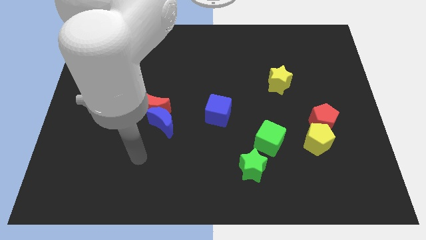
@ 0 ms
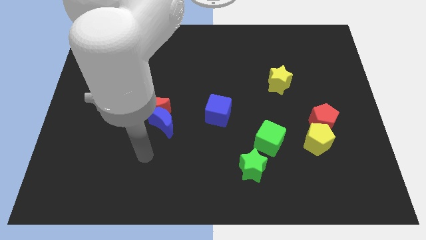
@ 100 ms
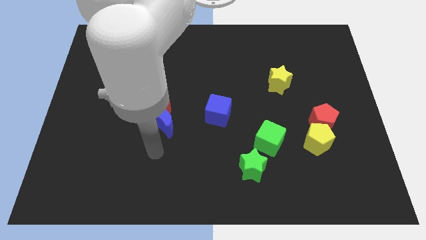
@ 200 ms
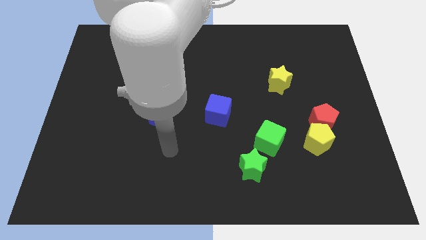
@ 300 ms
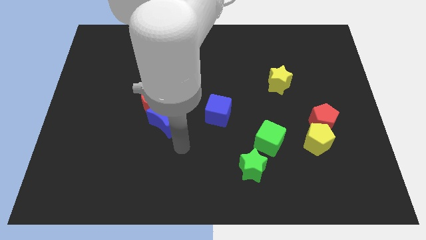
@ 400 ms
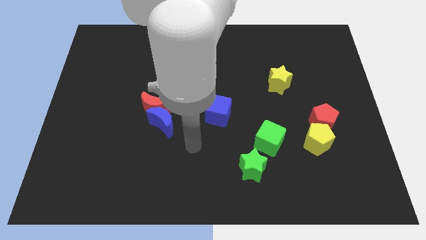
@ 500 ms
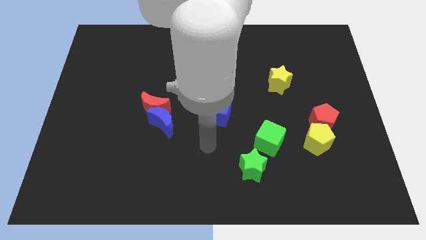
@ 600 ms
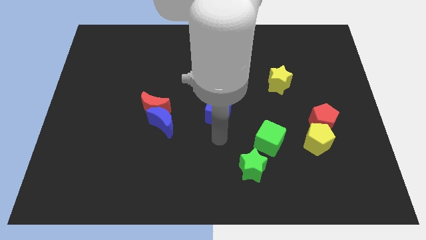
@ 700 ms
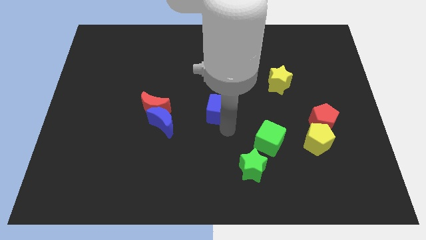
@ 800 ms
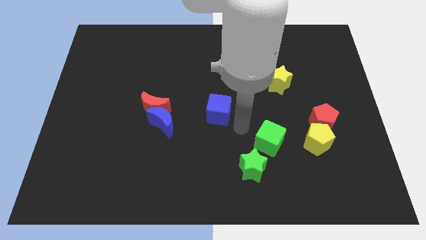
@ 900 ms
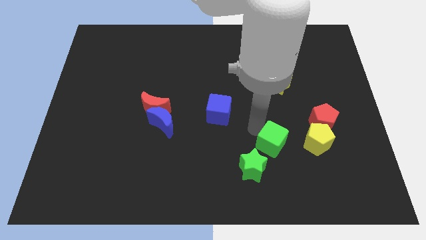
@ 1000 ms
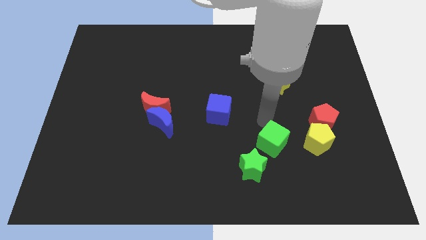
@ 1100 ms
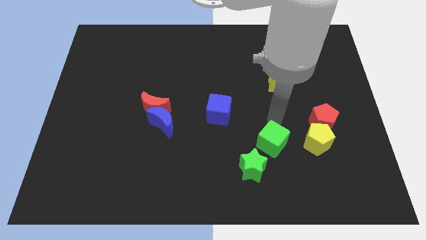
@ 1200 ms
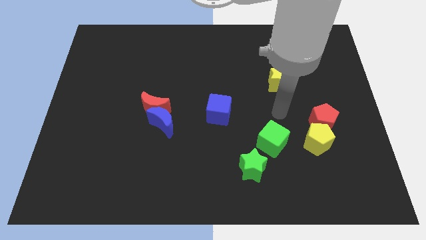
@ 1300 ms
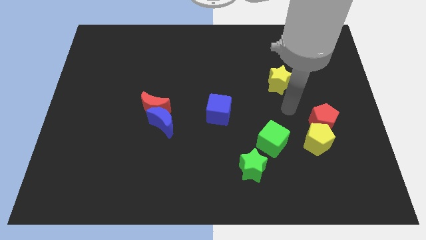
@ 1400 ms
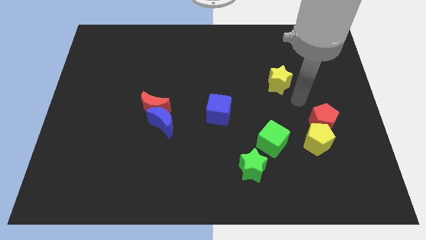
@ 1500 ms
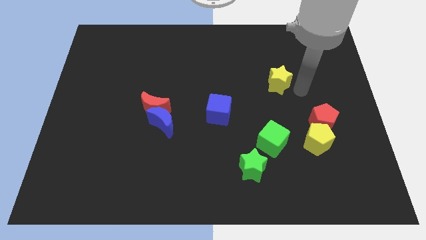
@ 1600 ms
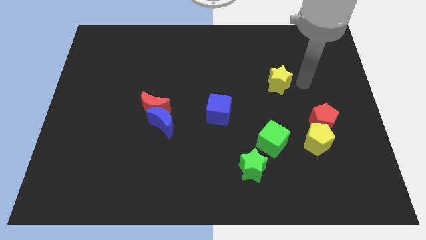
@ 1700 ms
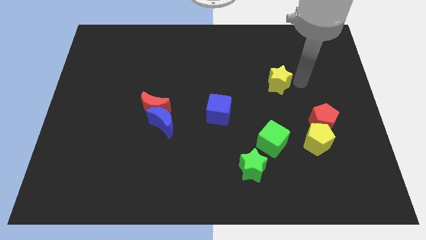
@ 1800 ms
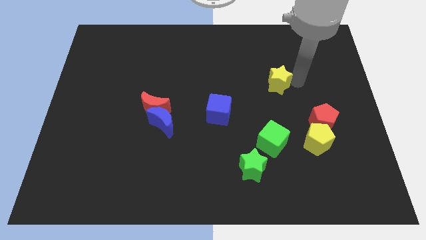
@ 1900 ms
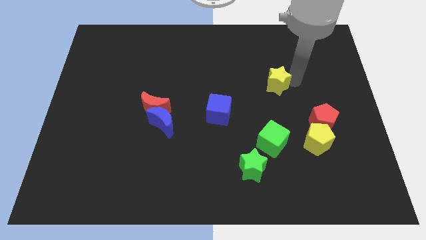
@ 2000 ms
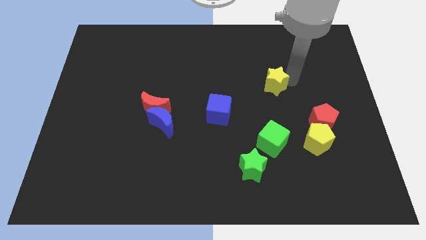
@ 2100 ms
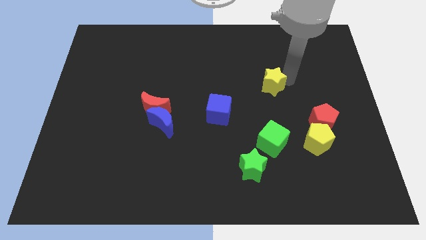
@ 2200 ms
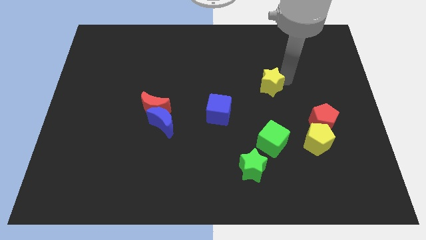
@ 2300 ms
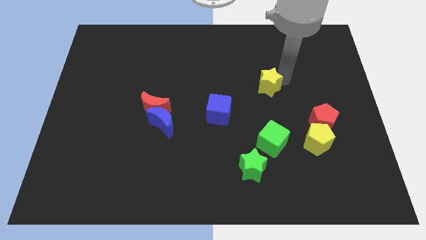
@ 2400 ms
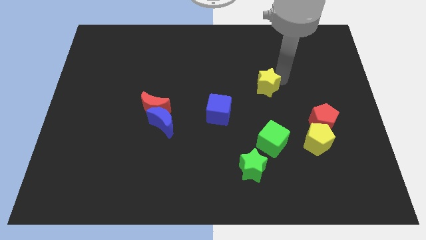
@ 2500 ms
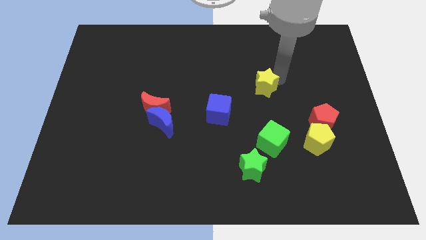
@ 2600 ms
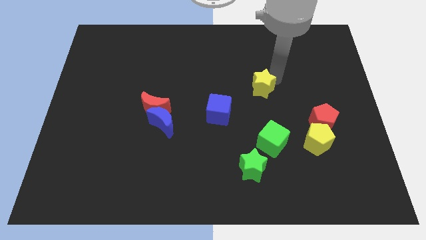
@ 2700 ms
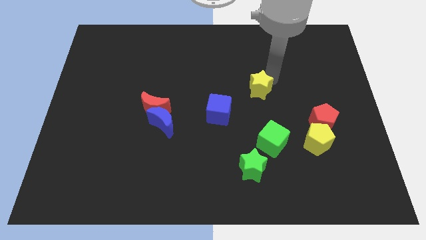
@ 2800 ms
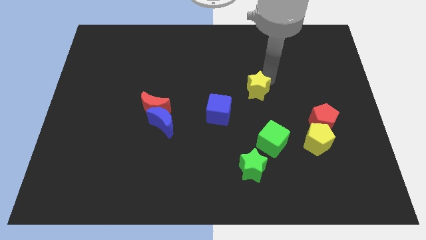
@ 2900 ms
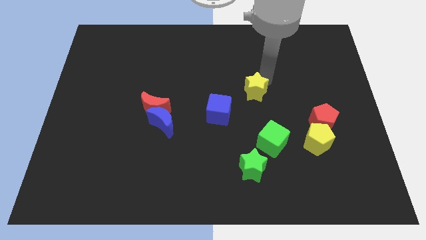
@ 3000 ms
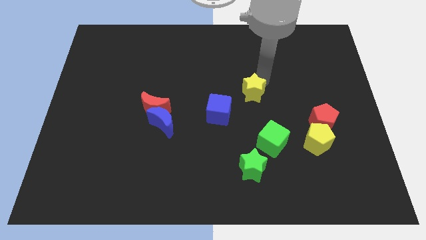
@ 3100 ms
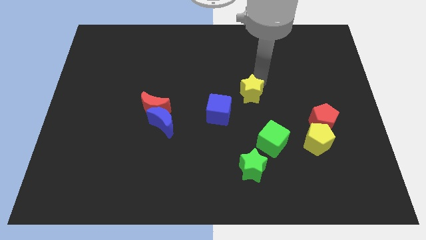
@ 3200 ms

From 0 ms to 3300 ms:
push the yellow star to the left slightly

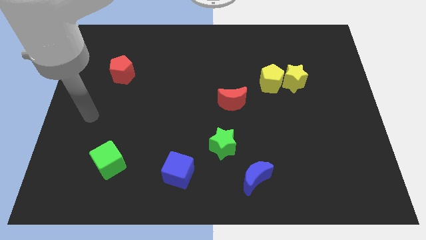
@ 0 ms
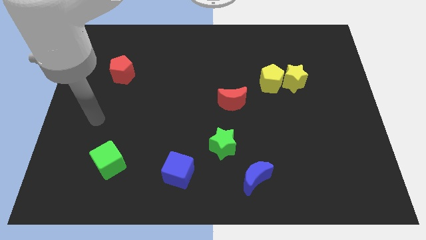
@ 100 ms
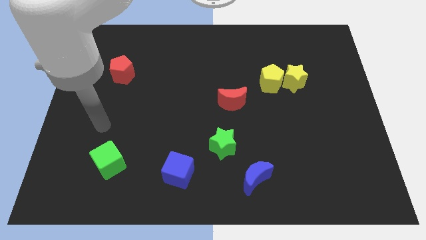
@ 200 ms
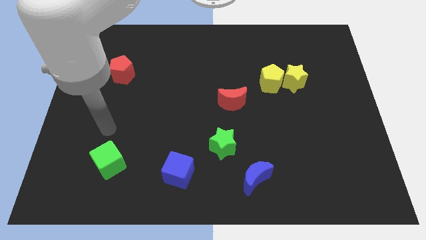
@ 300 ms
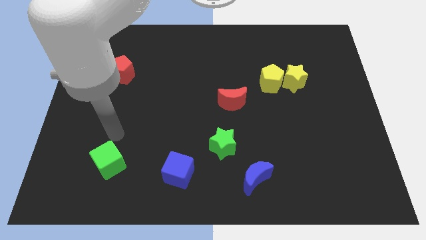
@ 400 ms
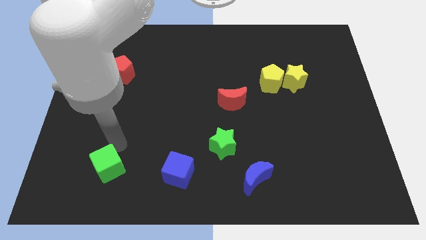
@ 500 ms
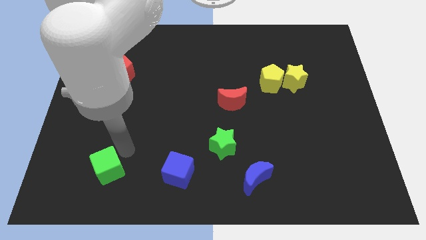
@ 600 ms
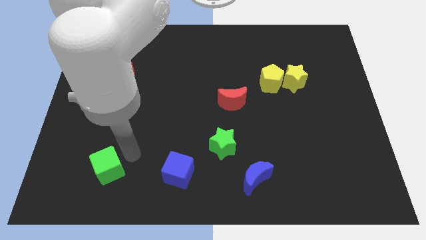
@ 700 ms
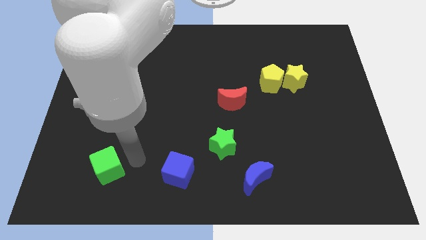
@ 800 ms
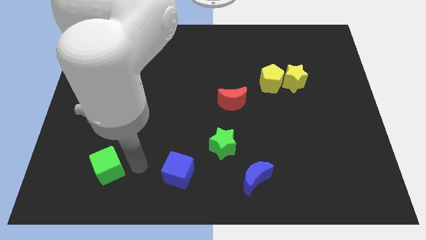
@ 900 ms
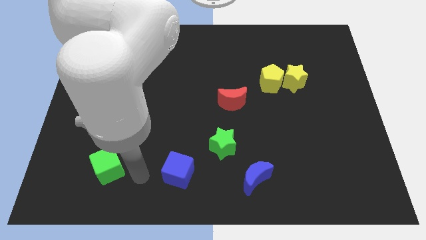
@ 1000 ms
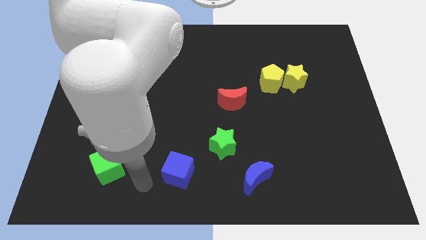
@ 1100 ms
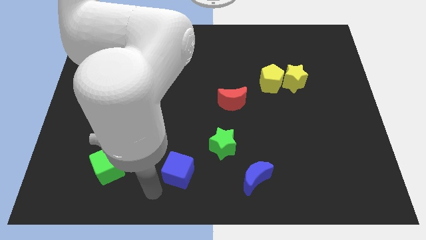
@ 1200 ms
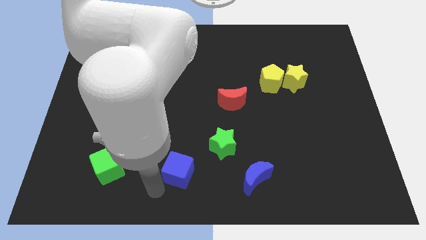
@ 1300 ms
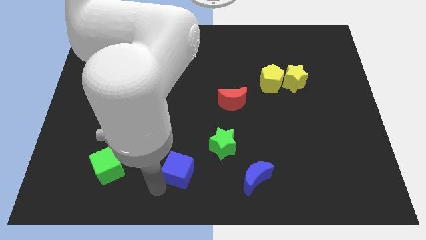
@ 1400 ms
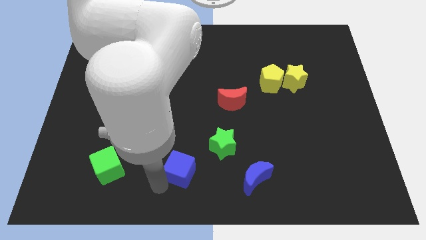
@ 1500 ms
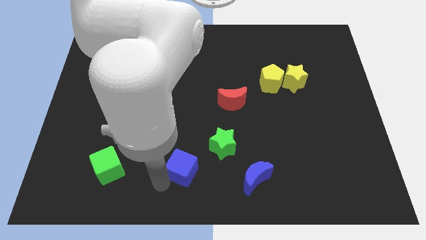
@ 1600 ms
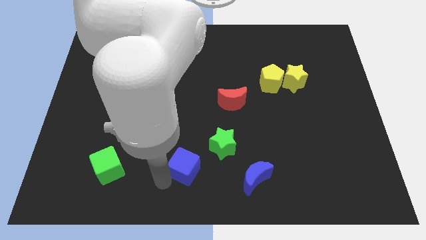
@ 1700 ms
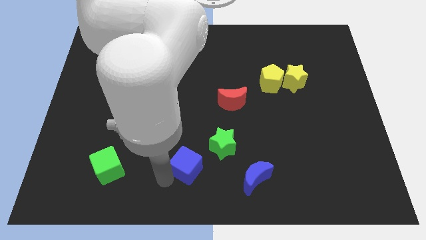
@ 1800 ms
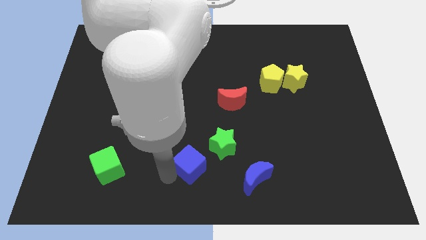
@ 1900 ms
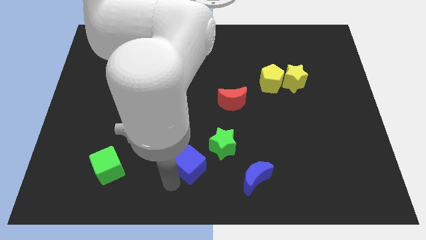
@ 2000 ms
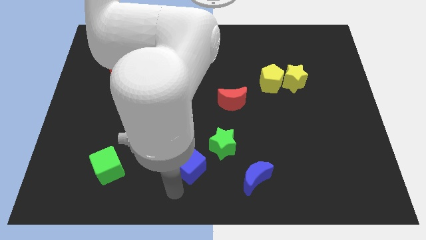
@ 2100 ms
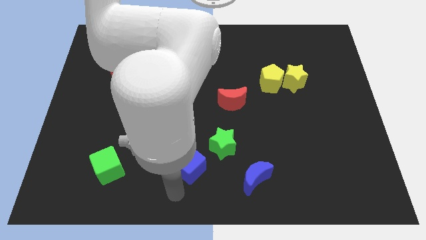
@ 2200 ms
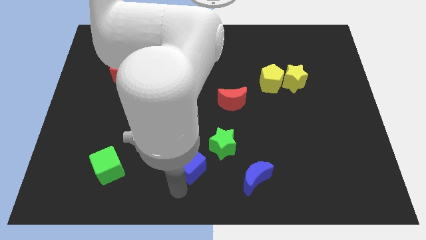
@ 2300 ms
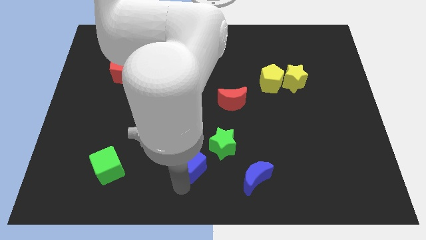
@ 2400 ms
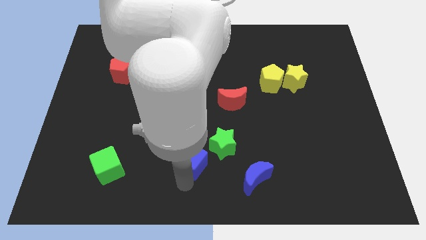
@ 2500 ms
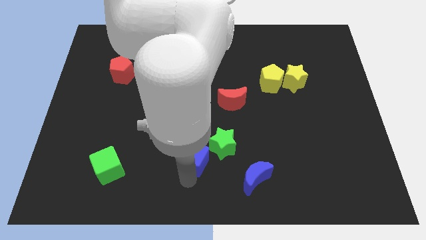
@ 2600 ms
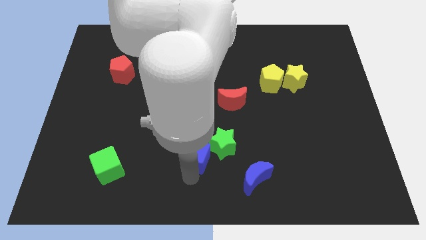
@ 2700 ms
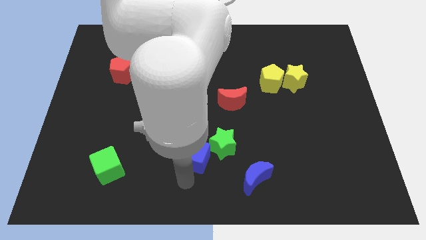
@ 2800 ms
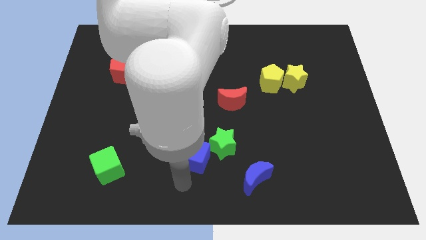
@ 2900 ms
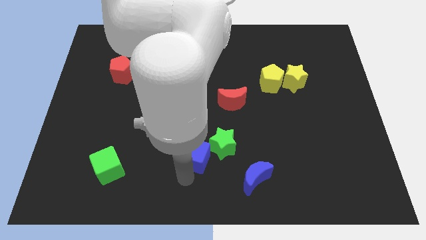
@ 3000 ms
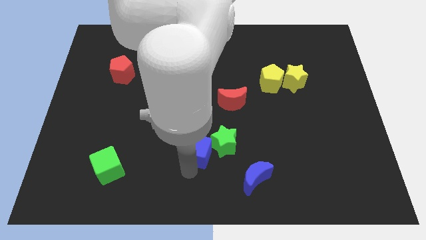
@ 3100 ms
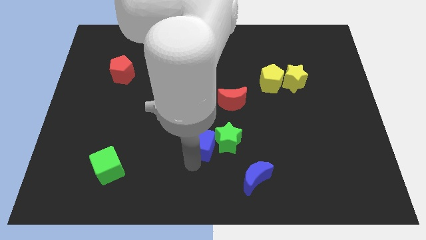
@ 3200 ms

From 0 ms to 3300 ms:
slide the blue cube a little diagonally up and to the right

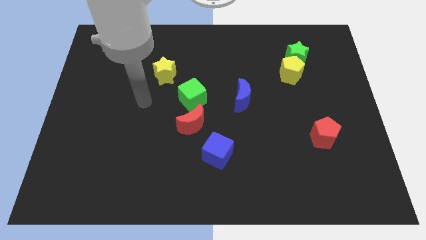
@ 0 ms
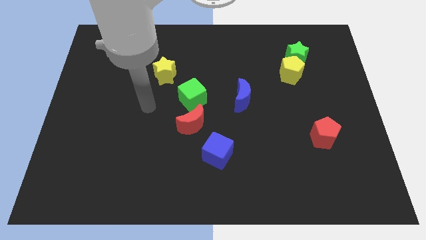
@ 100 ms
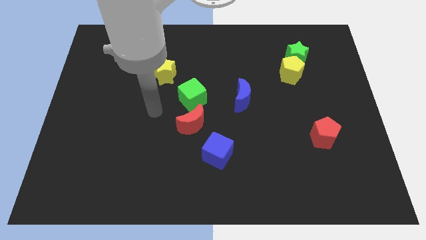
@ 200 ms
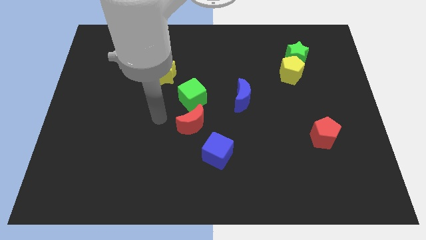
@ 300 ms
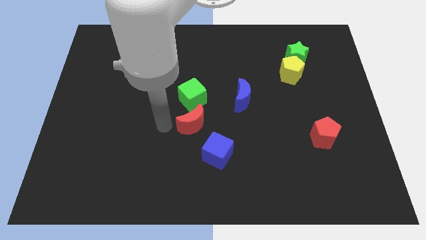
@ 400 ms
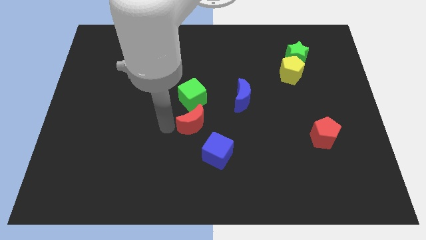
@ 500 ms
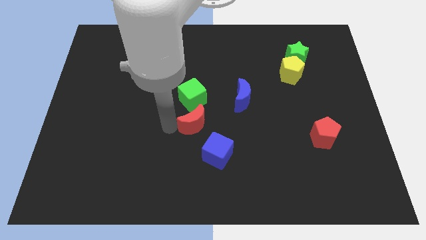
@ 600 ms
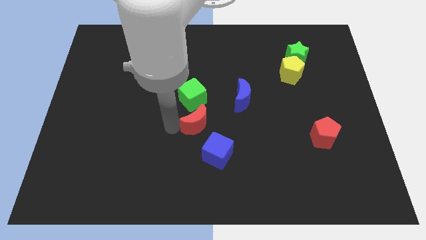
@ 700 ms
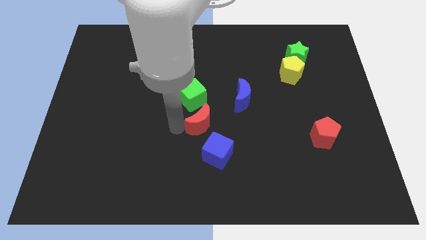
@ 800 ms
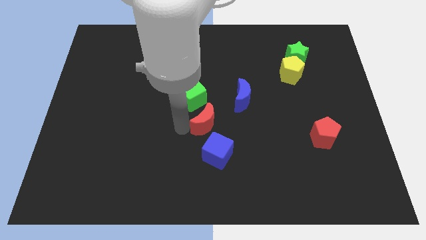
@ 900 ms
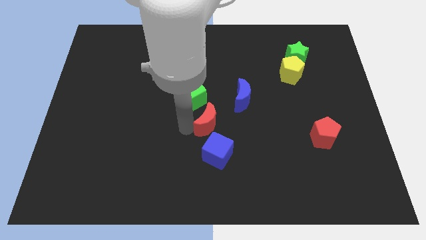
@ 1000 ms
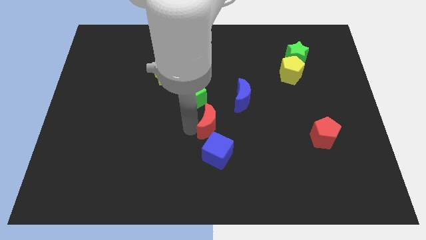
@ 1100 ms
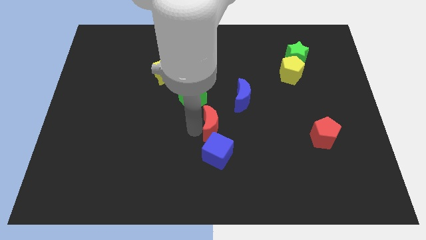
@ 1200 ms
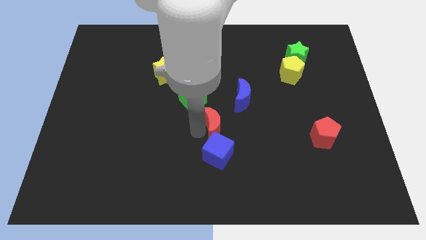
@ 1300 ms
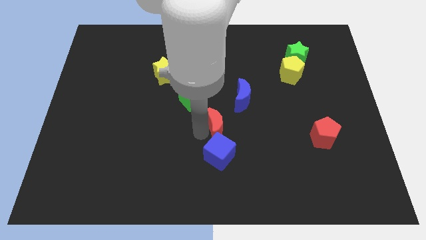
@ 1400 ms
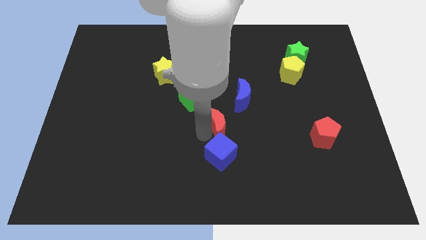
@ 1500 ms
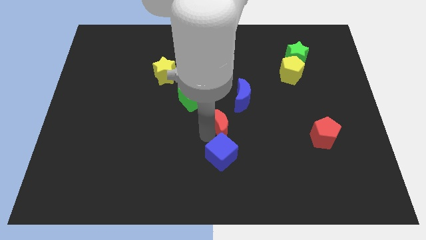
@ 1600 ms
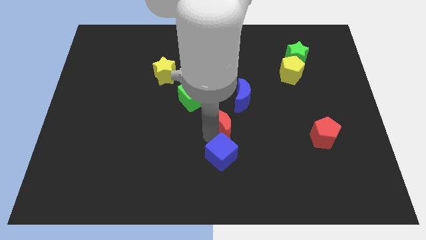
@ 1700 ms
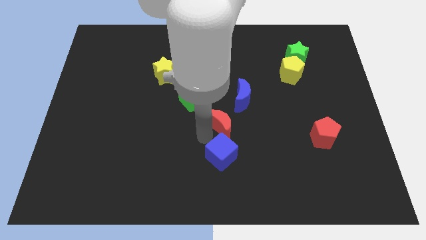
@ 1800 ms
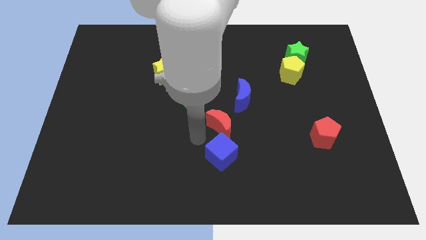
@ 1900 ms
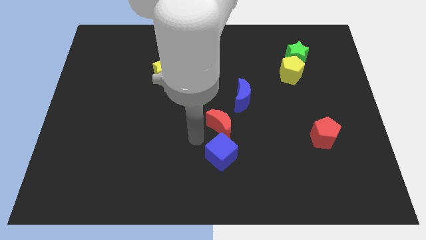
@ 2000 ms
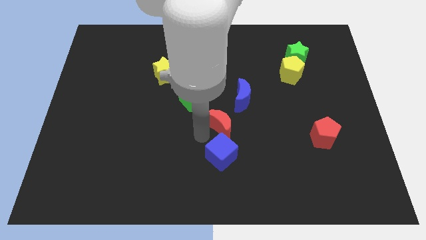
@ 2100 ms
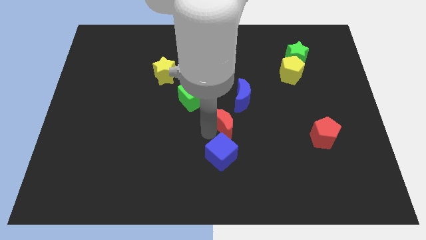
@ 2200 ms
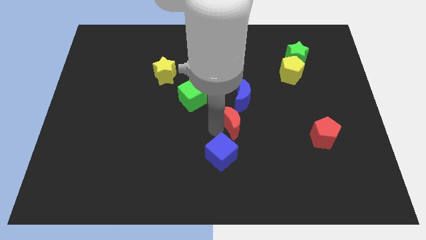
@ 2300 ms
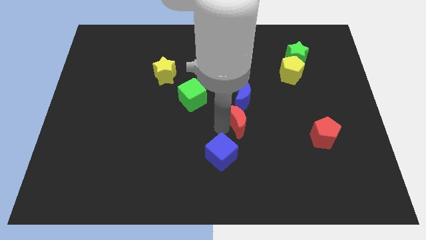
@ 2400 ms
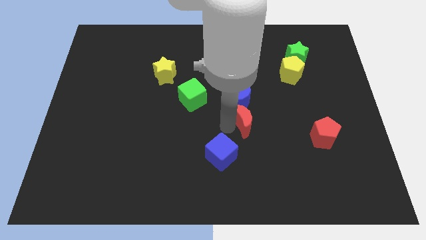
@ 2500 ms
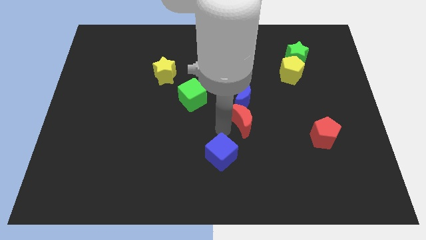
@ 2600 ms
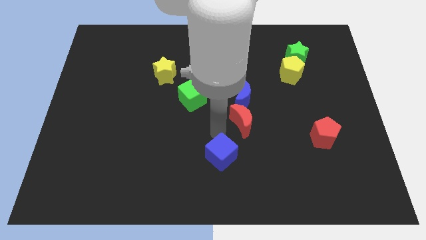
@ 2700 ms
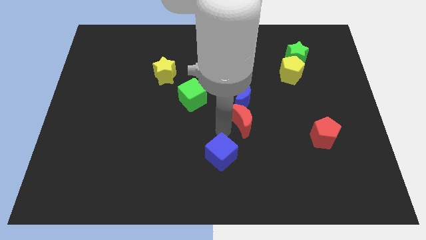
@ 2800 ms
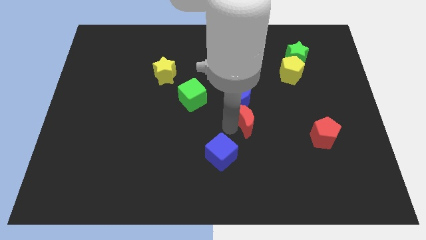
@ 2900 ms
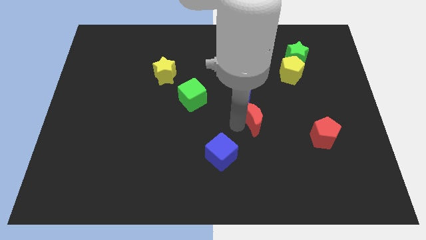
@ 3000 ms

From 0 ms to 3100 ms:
push the red moon a little bit up and right diagonally
